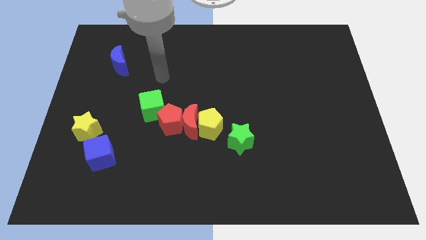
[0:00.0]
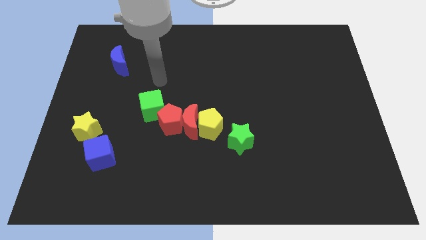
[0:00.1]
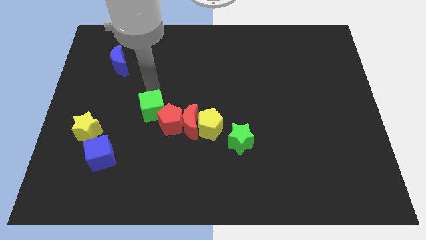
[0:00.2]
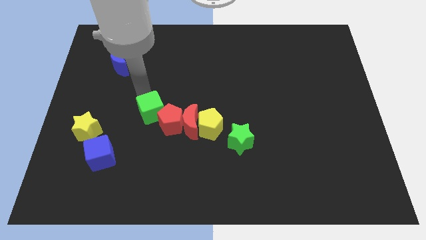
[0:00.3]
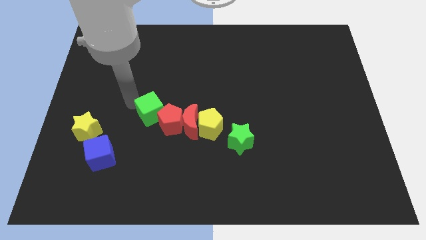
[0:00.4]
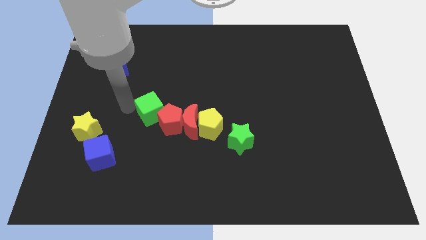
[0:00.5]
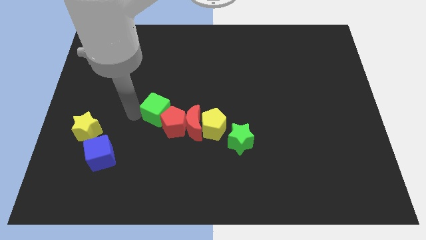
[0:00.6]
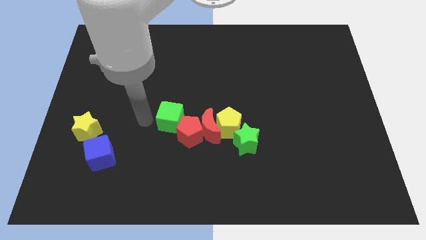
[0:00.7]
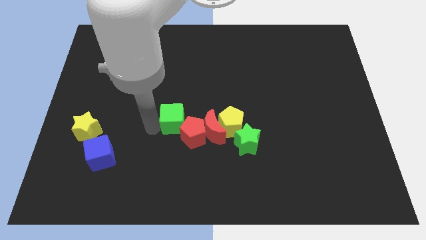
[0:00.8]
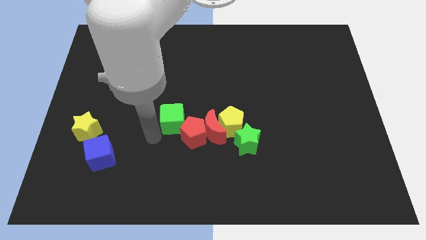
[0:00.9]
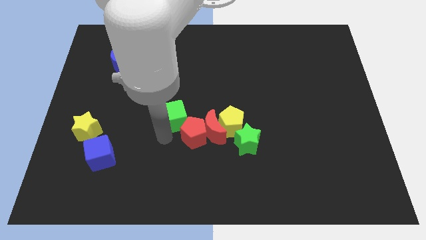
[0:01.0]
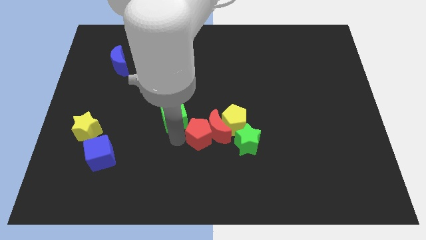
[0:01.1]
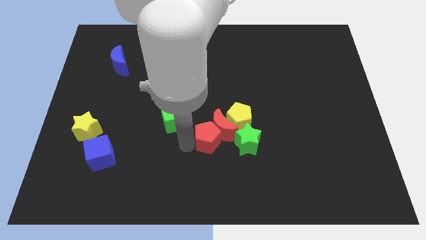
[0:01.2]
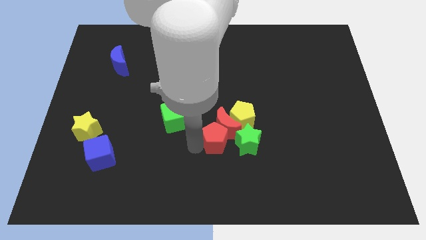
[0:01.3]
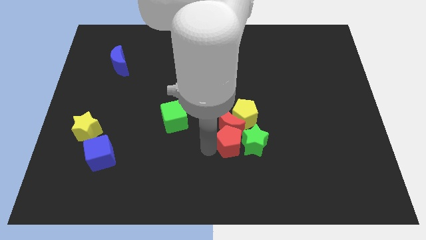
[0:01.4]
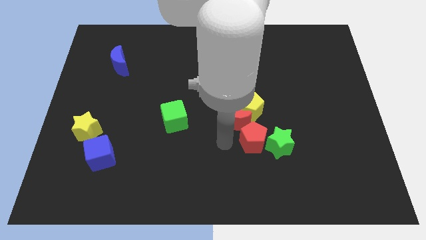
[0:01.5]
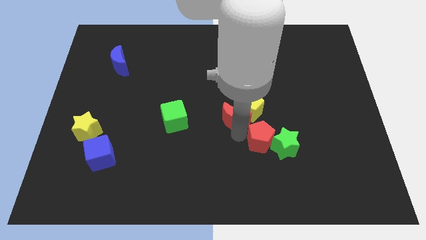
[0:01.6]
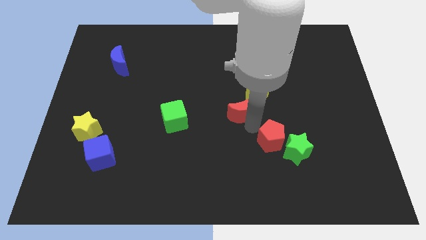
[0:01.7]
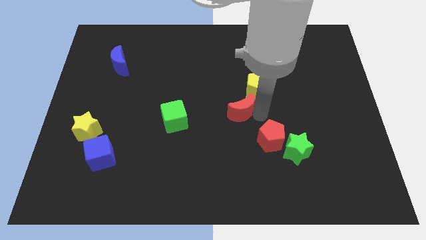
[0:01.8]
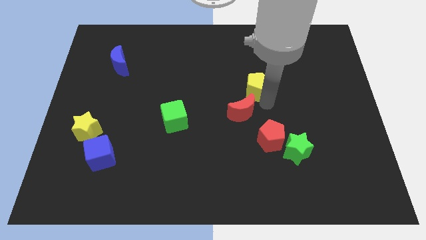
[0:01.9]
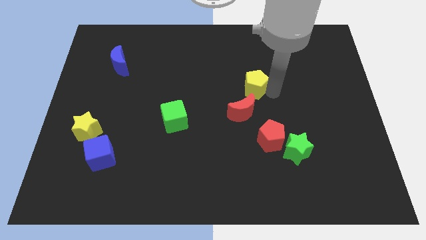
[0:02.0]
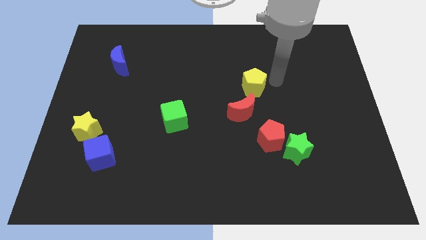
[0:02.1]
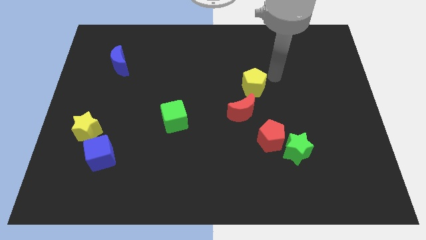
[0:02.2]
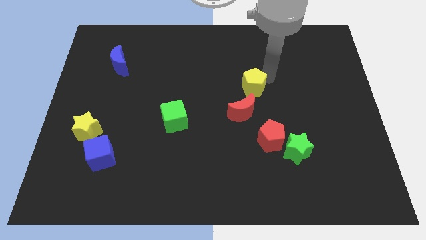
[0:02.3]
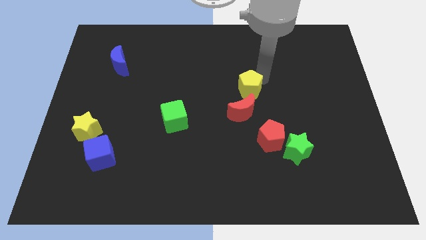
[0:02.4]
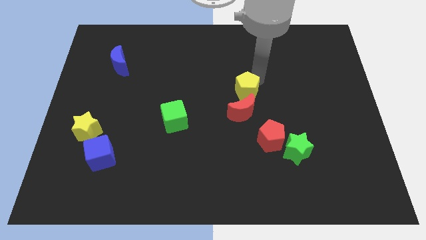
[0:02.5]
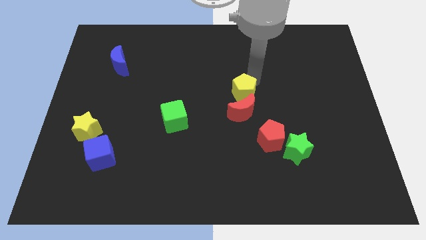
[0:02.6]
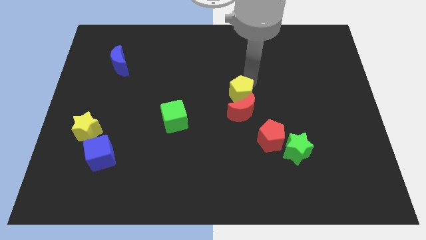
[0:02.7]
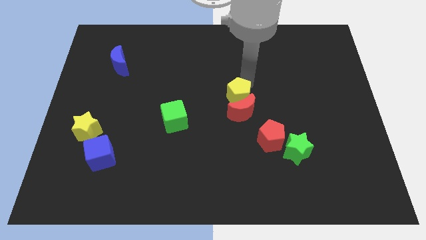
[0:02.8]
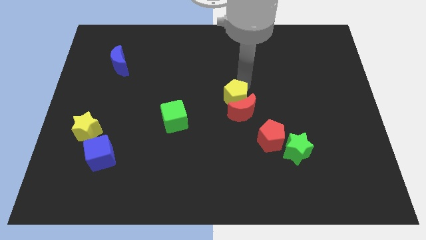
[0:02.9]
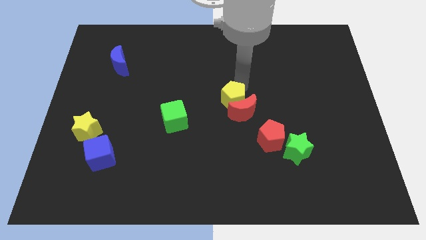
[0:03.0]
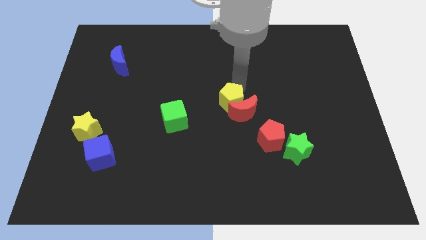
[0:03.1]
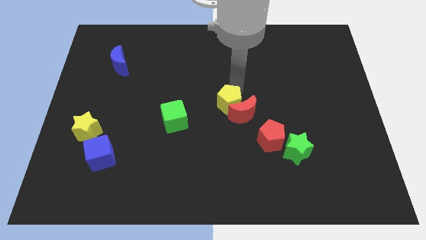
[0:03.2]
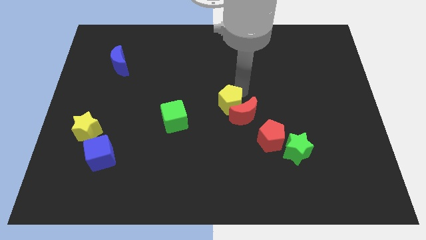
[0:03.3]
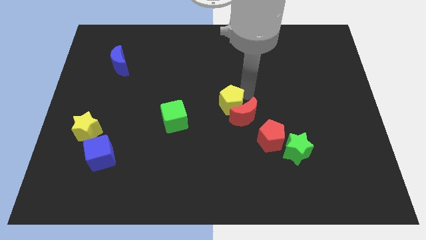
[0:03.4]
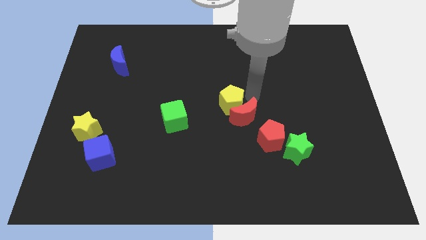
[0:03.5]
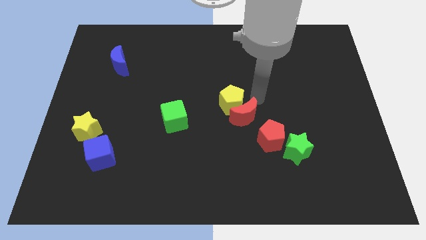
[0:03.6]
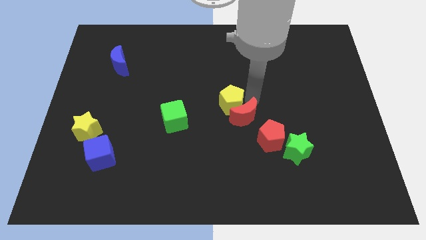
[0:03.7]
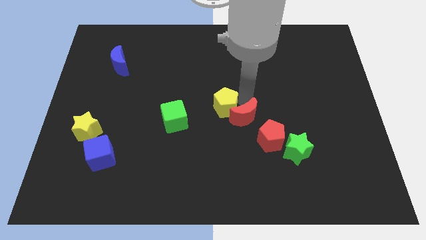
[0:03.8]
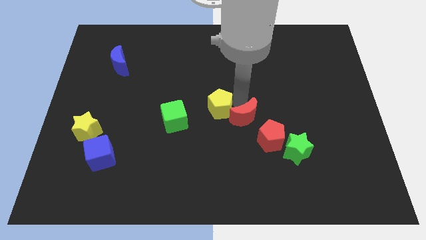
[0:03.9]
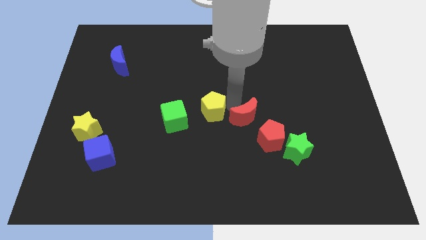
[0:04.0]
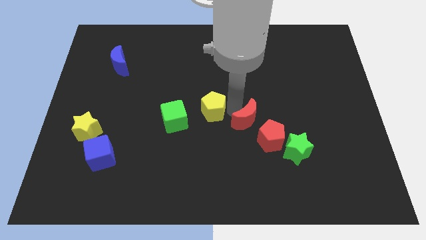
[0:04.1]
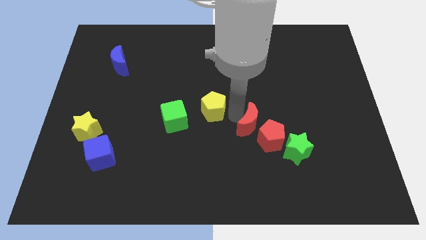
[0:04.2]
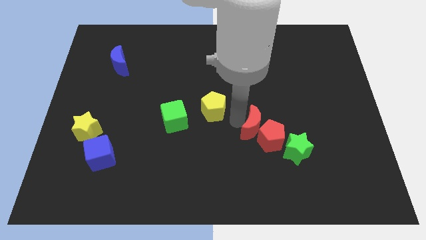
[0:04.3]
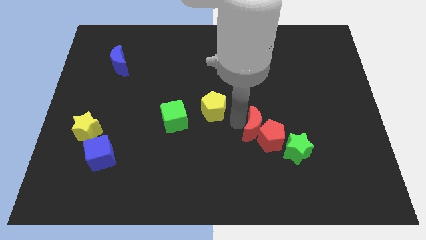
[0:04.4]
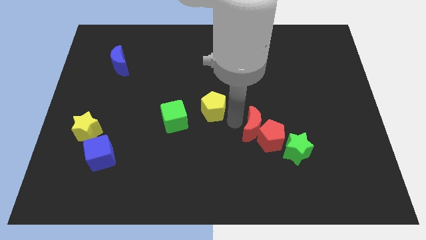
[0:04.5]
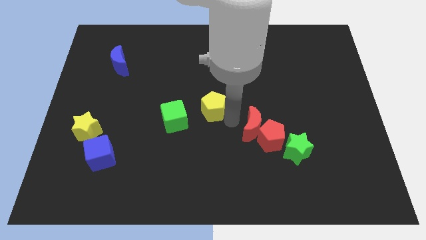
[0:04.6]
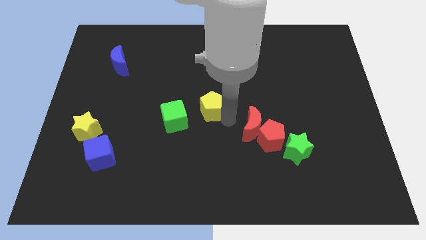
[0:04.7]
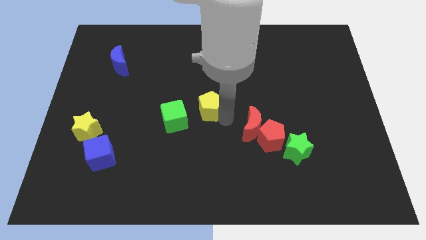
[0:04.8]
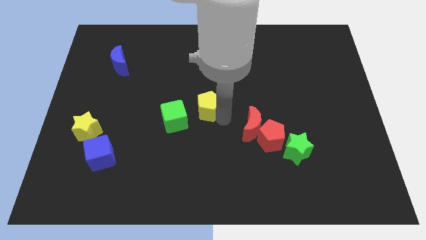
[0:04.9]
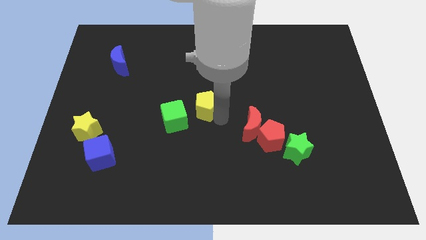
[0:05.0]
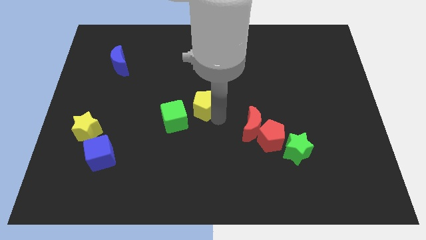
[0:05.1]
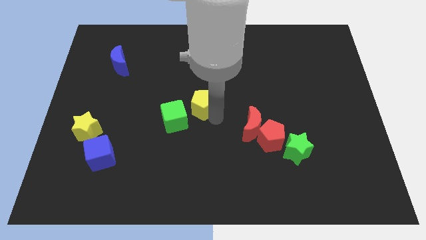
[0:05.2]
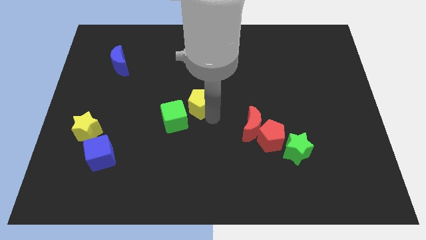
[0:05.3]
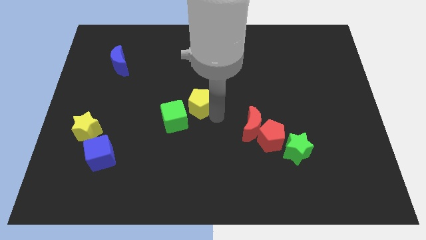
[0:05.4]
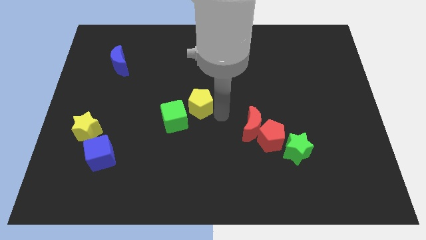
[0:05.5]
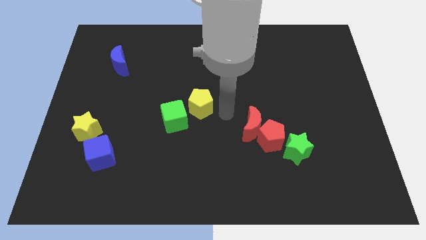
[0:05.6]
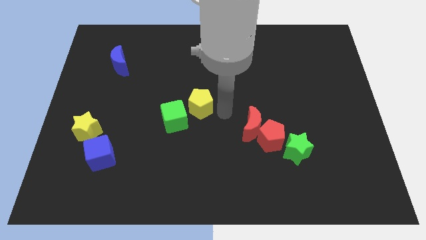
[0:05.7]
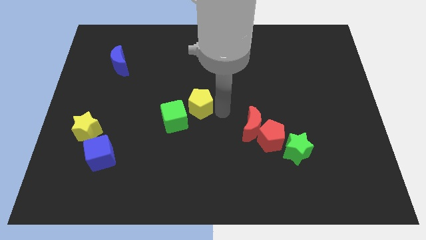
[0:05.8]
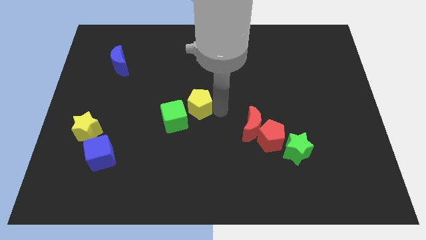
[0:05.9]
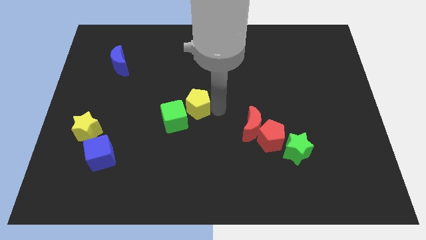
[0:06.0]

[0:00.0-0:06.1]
move the yellow pentagon to the green cube

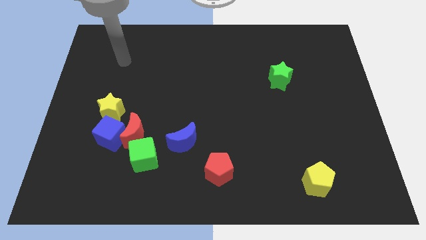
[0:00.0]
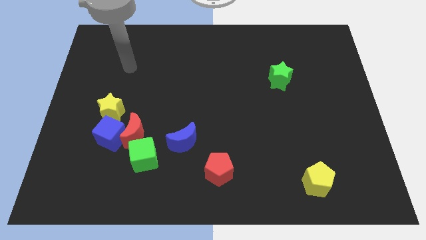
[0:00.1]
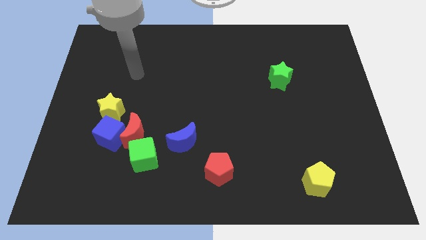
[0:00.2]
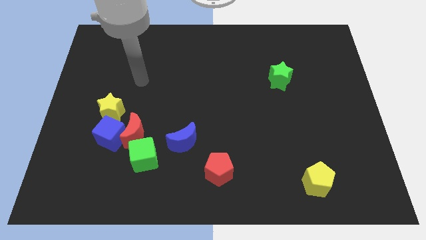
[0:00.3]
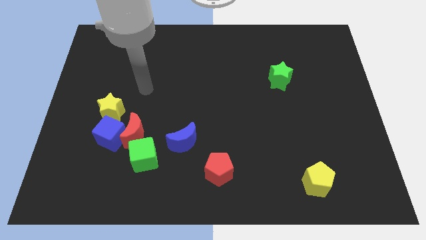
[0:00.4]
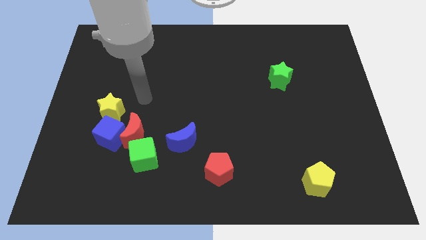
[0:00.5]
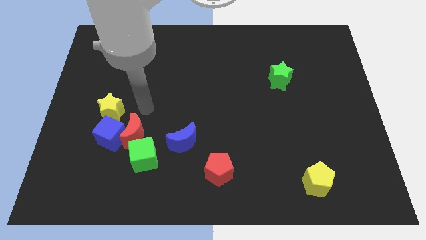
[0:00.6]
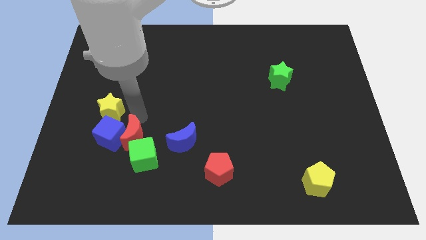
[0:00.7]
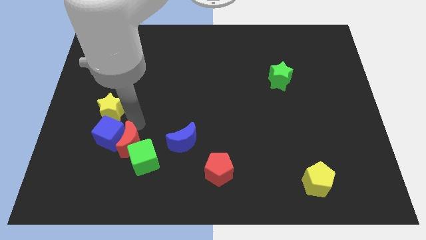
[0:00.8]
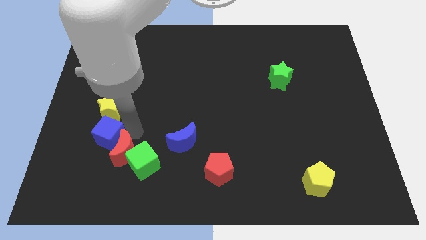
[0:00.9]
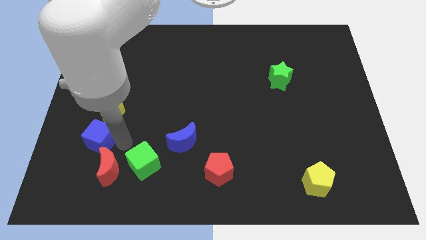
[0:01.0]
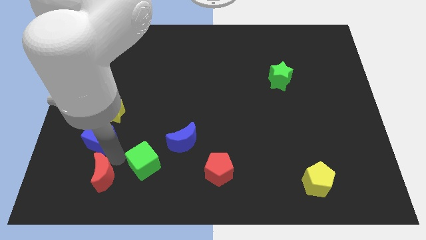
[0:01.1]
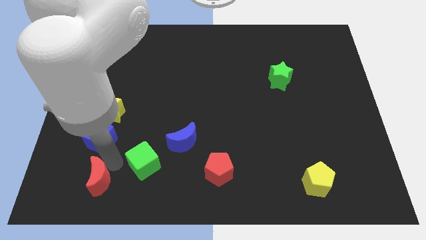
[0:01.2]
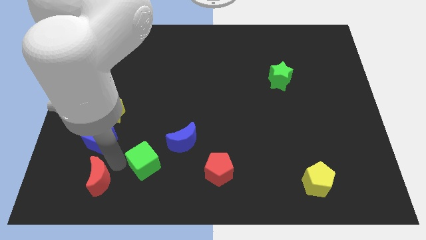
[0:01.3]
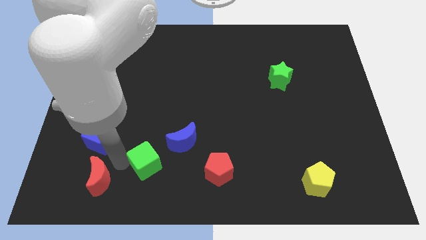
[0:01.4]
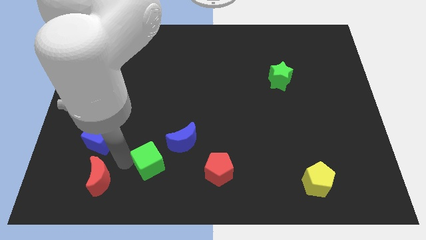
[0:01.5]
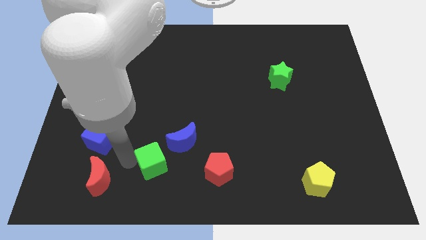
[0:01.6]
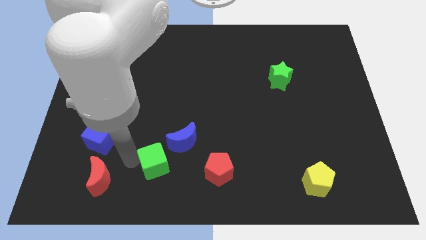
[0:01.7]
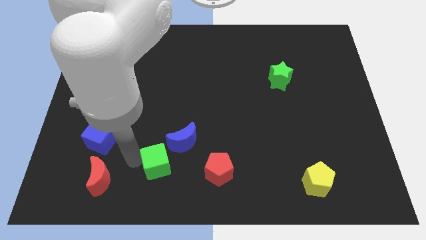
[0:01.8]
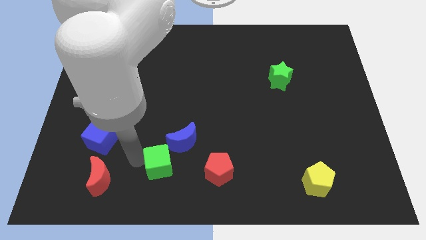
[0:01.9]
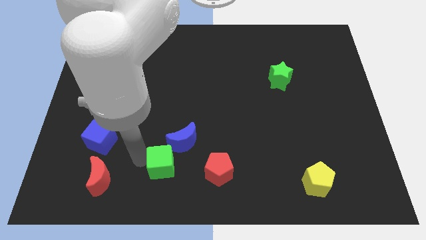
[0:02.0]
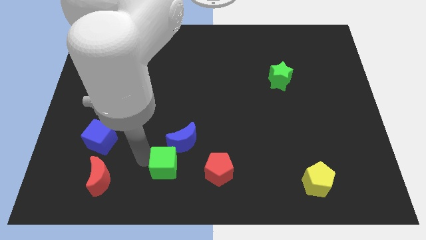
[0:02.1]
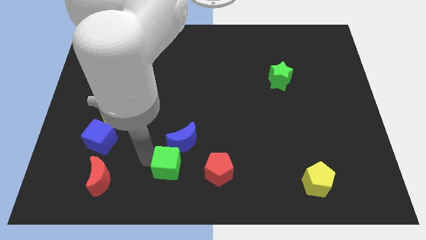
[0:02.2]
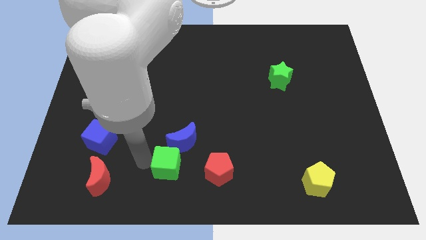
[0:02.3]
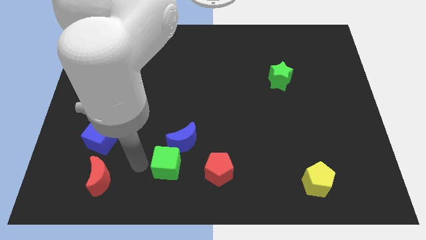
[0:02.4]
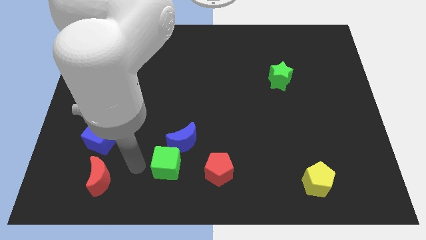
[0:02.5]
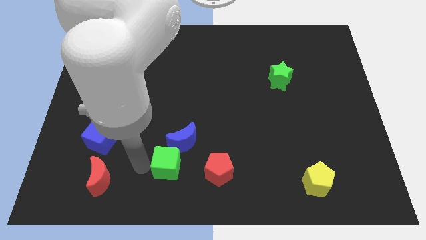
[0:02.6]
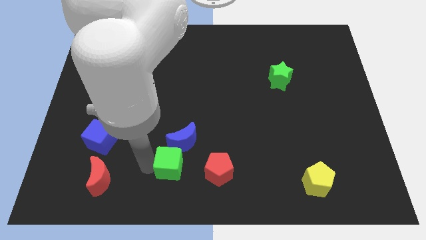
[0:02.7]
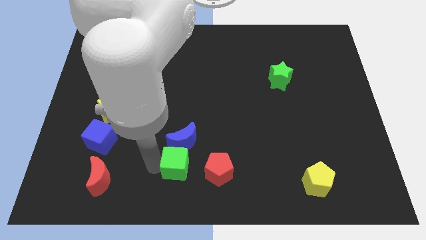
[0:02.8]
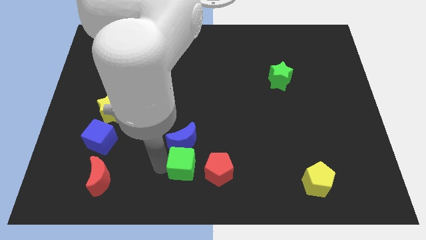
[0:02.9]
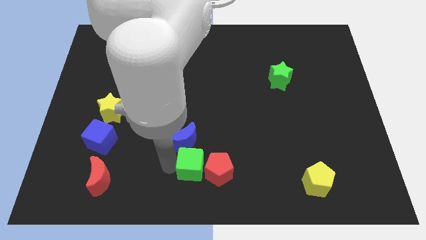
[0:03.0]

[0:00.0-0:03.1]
push the green cube close to the red pentagon
